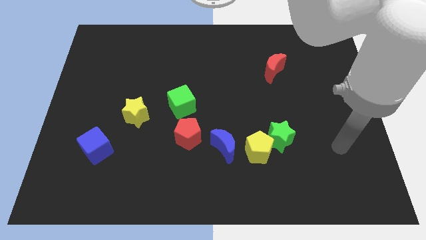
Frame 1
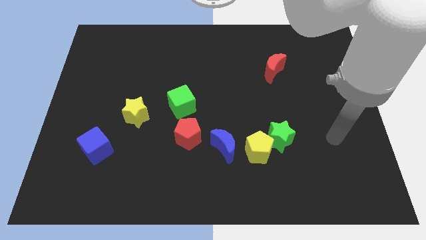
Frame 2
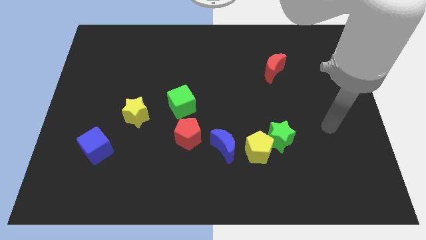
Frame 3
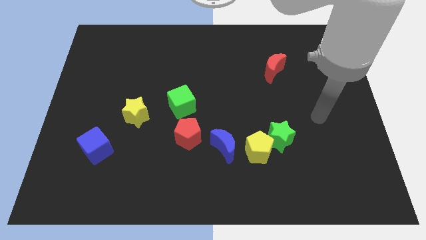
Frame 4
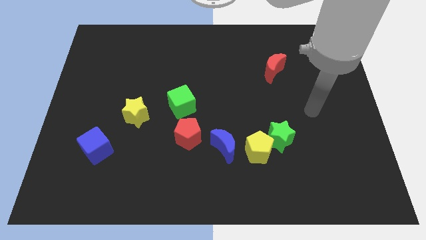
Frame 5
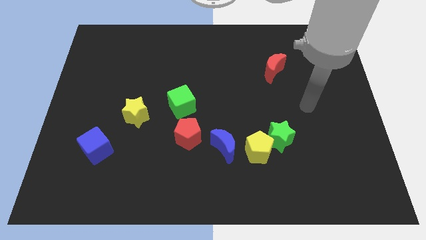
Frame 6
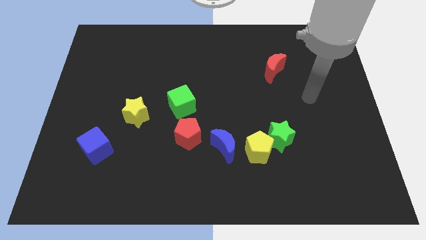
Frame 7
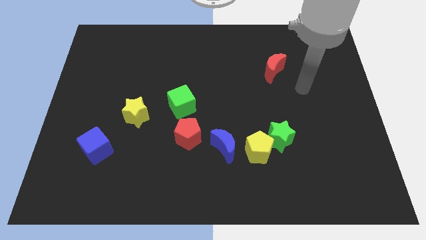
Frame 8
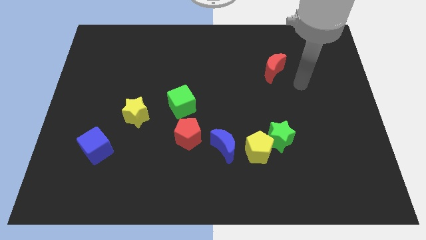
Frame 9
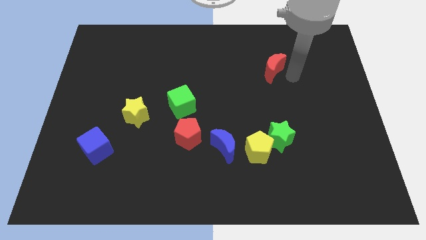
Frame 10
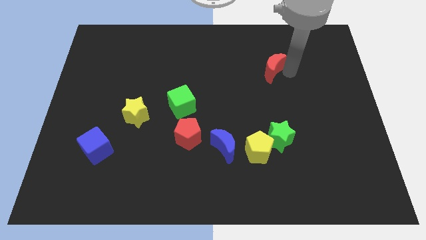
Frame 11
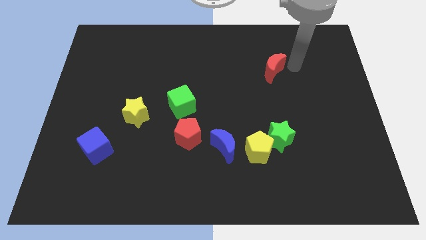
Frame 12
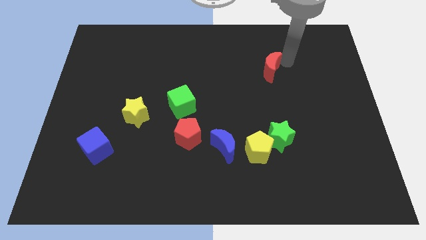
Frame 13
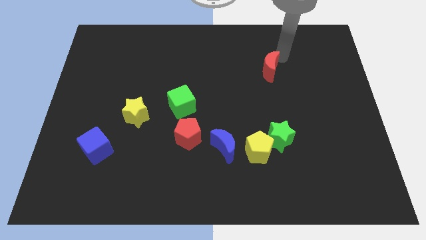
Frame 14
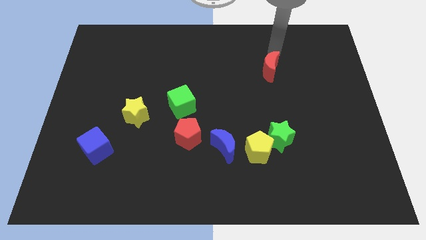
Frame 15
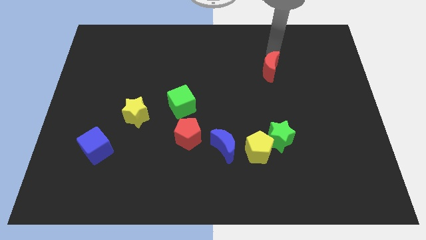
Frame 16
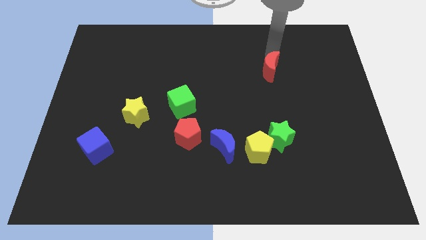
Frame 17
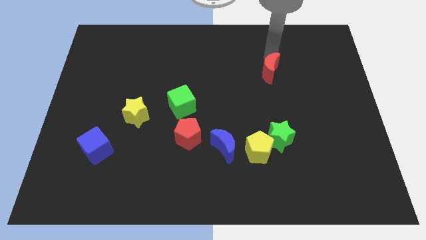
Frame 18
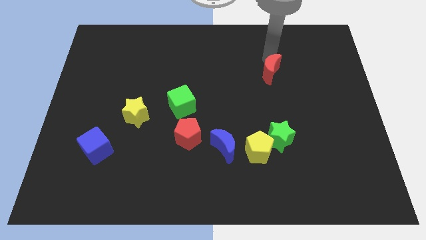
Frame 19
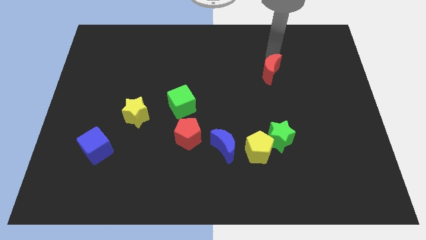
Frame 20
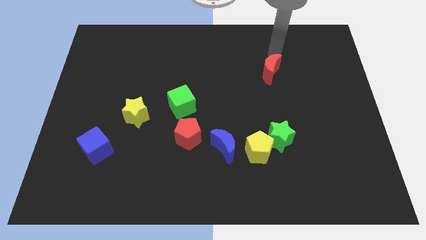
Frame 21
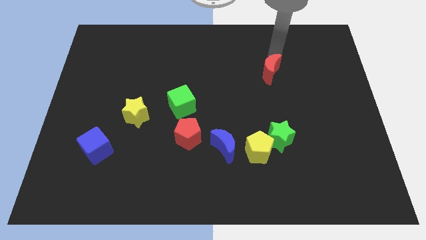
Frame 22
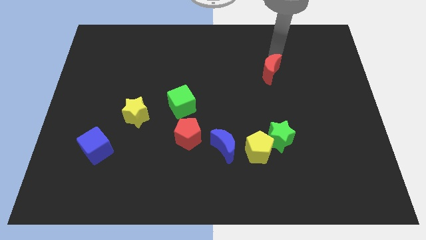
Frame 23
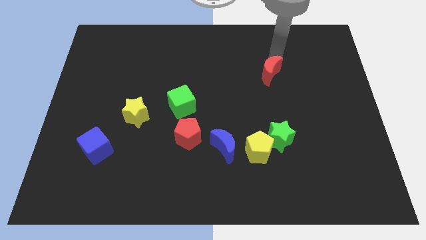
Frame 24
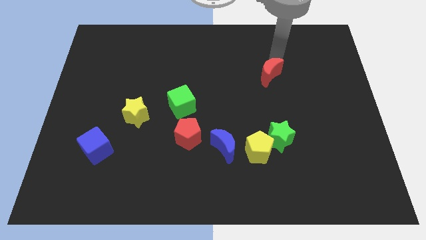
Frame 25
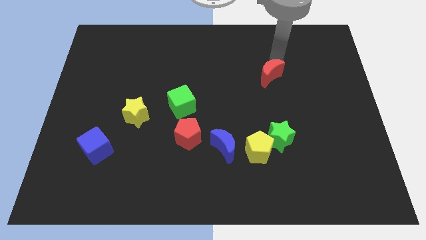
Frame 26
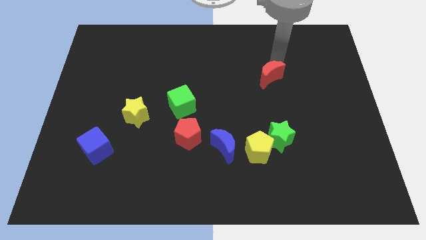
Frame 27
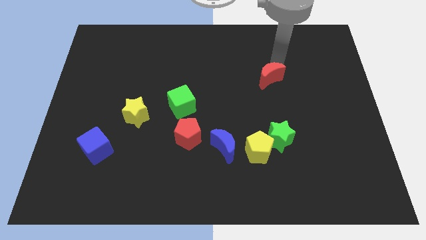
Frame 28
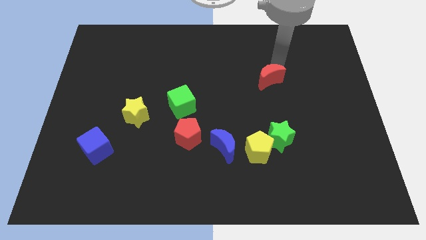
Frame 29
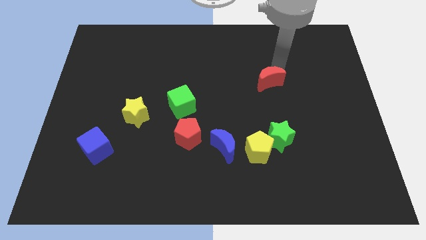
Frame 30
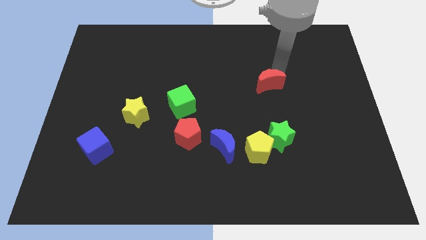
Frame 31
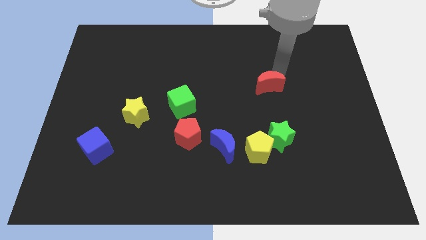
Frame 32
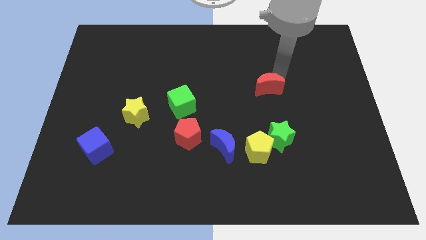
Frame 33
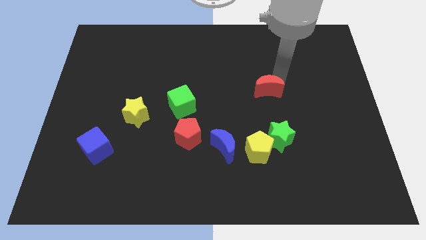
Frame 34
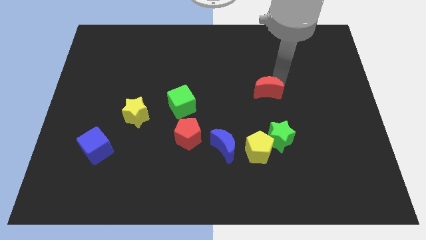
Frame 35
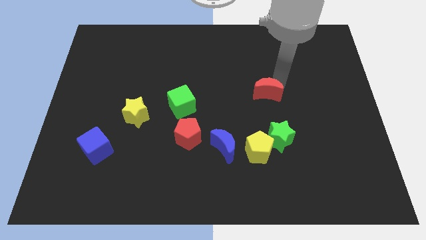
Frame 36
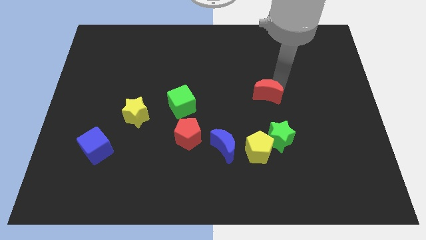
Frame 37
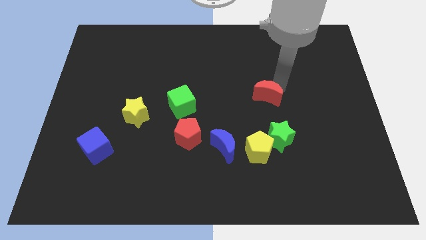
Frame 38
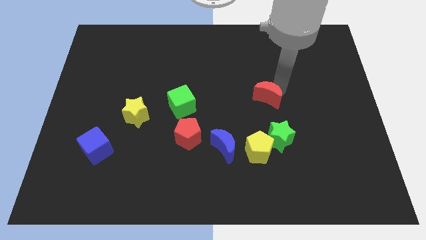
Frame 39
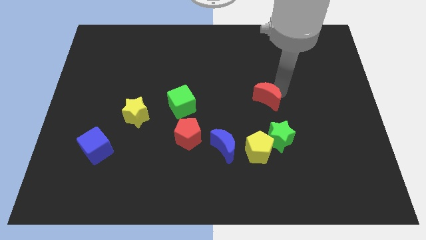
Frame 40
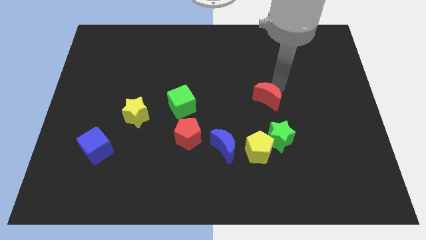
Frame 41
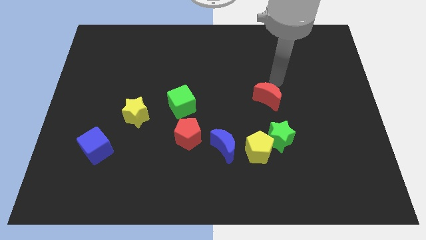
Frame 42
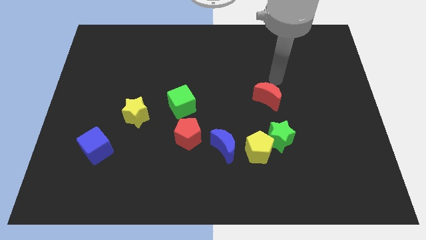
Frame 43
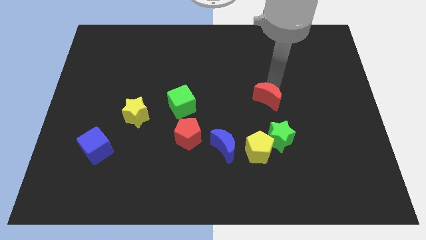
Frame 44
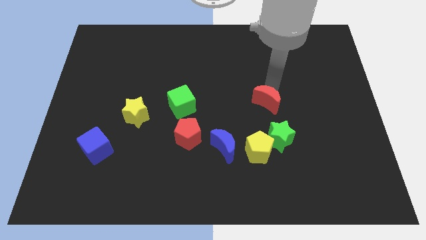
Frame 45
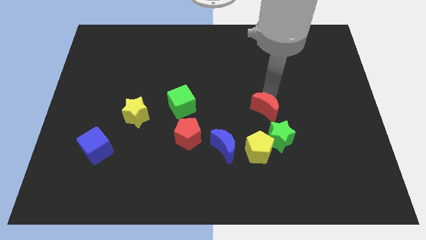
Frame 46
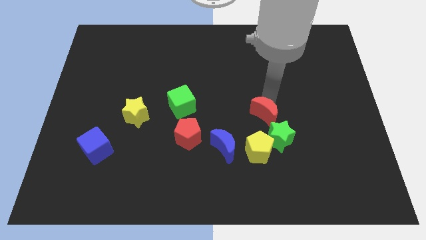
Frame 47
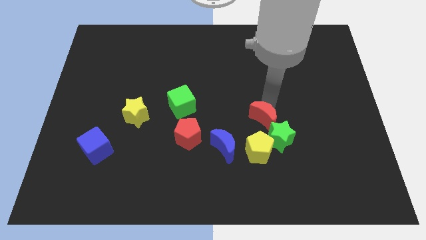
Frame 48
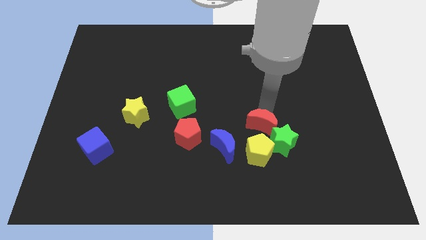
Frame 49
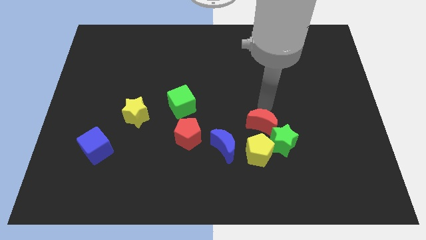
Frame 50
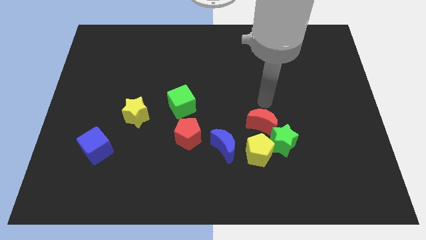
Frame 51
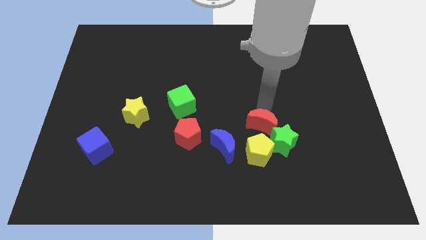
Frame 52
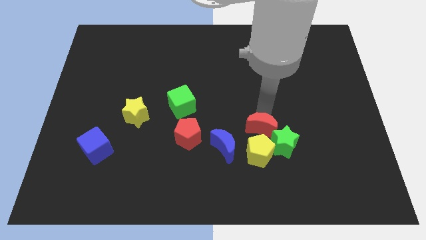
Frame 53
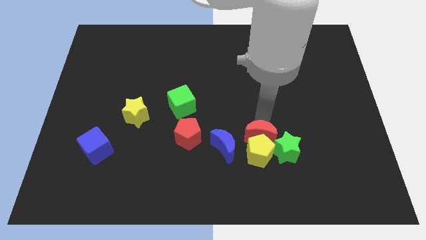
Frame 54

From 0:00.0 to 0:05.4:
put the red moon next to the yellow pentagon

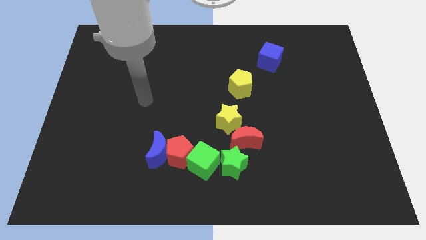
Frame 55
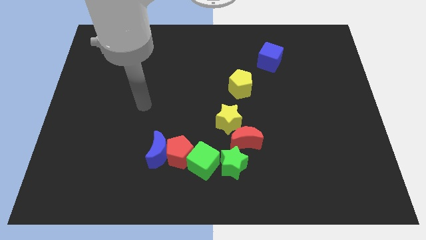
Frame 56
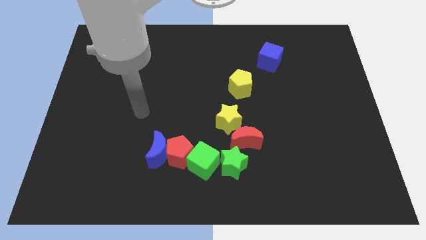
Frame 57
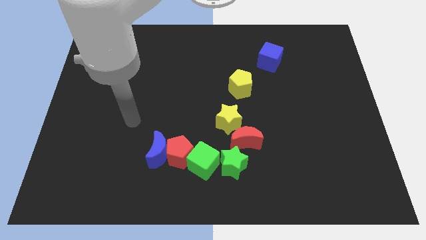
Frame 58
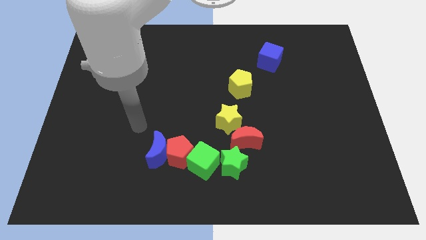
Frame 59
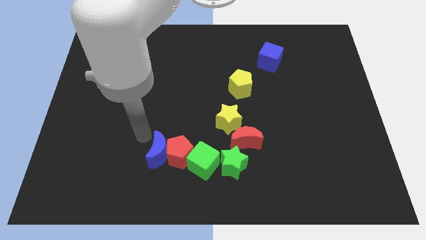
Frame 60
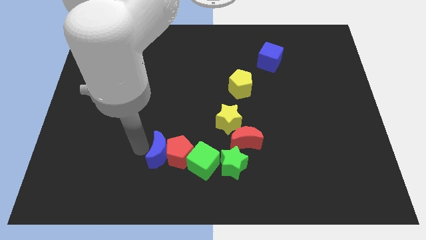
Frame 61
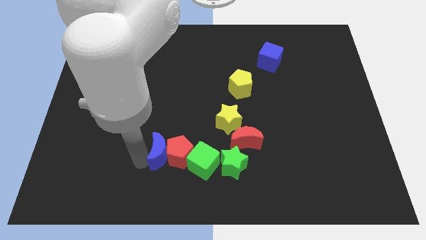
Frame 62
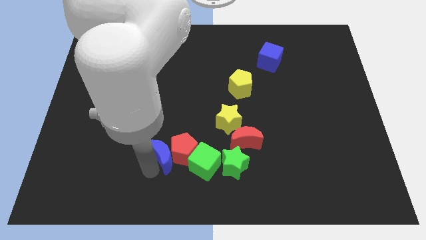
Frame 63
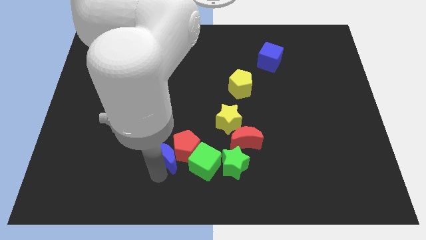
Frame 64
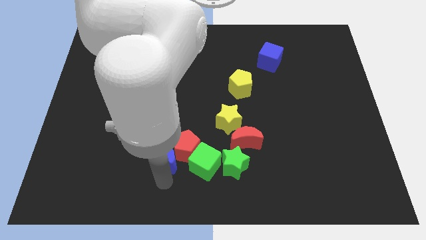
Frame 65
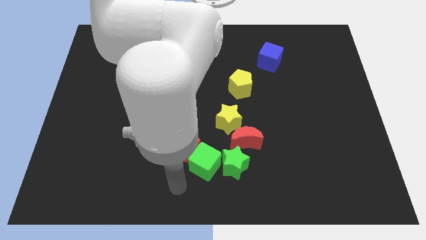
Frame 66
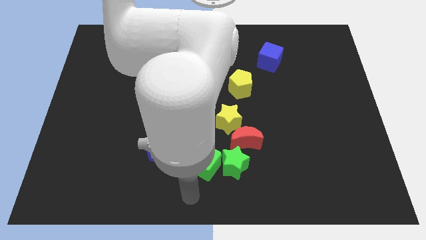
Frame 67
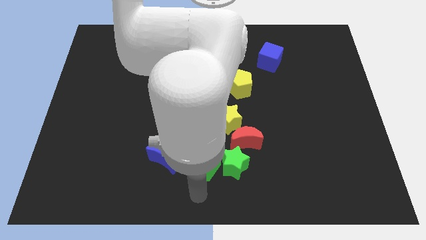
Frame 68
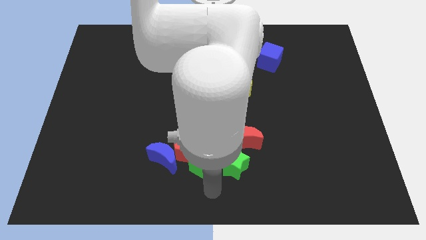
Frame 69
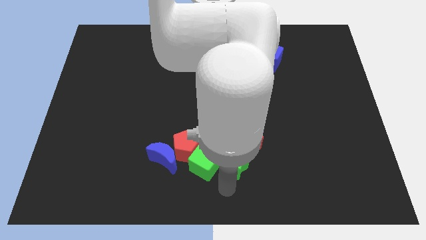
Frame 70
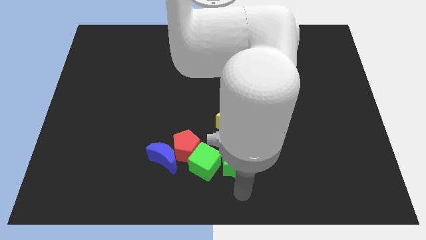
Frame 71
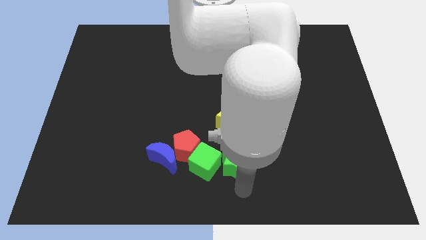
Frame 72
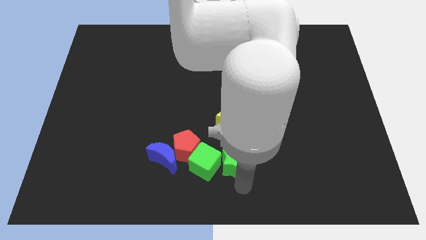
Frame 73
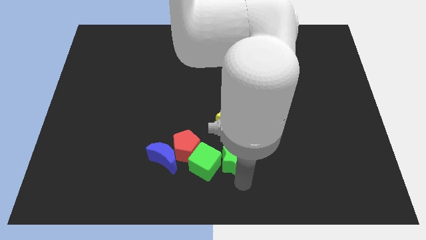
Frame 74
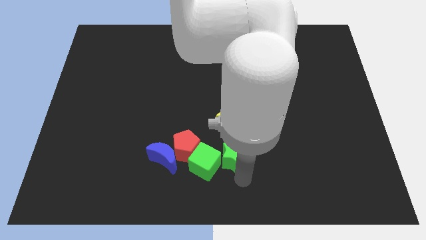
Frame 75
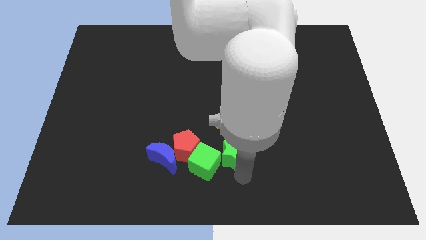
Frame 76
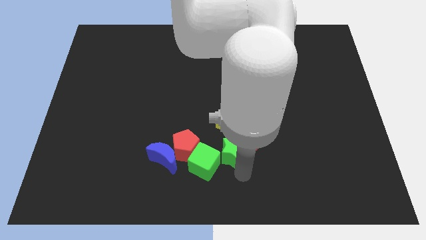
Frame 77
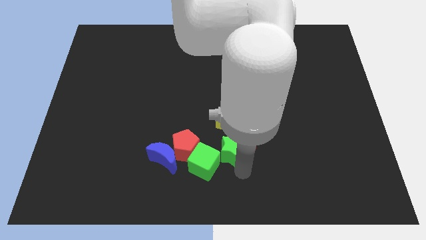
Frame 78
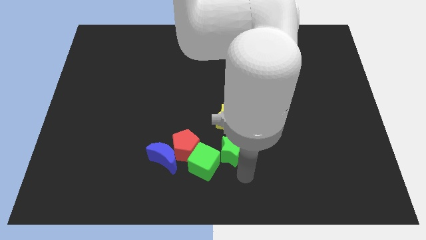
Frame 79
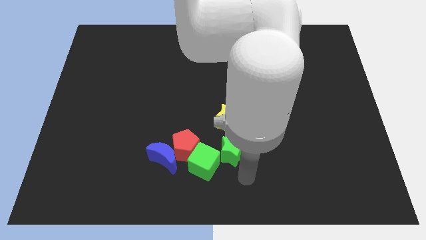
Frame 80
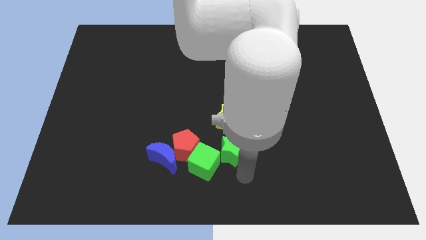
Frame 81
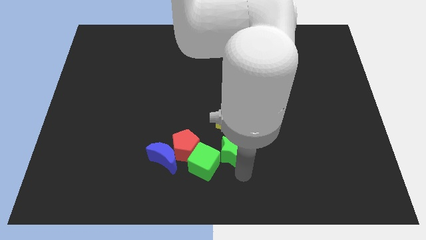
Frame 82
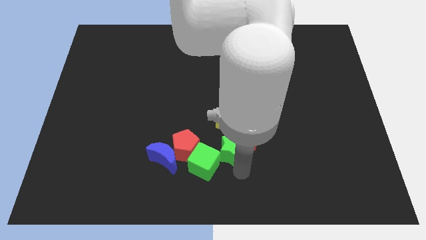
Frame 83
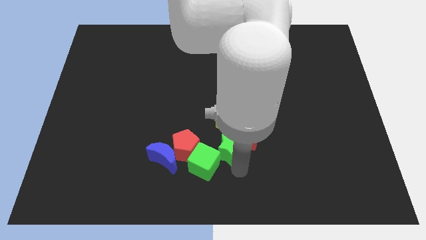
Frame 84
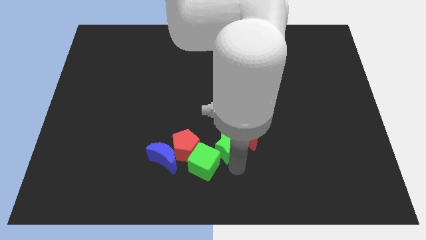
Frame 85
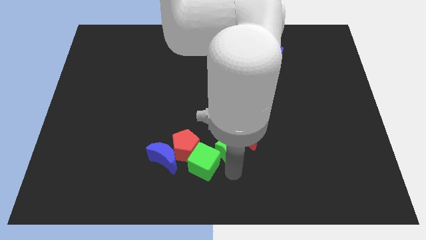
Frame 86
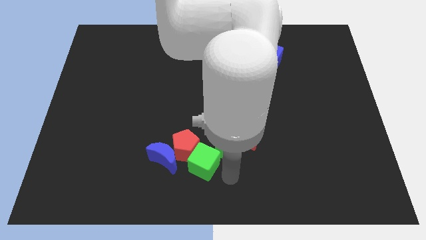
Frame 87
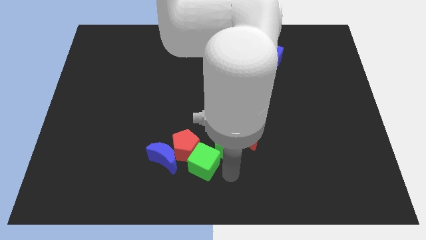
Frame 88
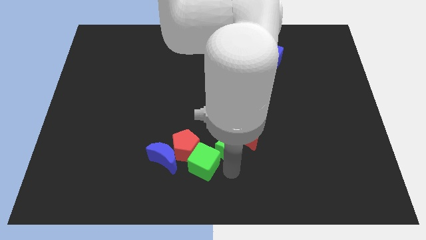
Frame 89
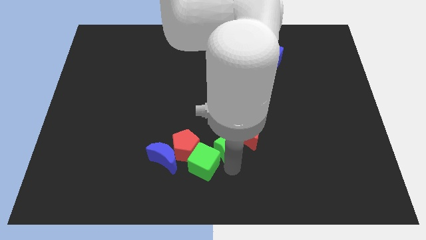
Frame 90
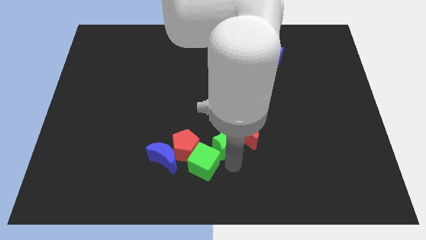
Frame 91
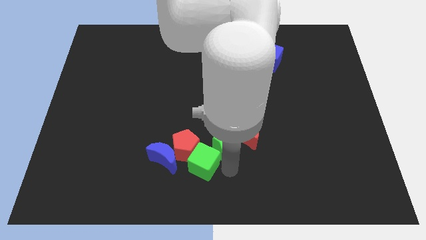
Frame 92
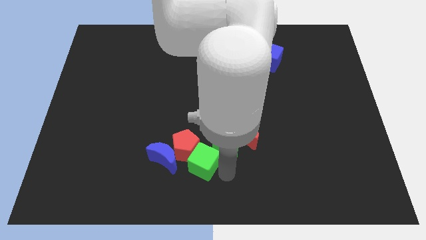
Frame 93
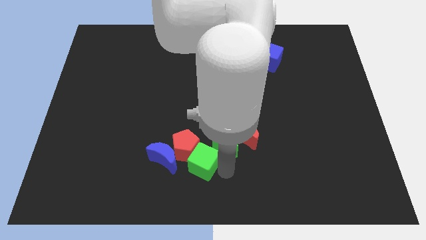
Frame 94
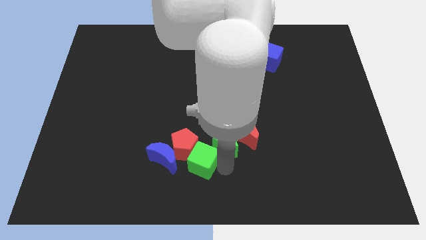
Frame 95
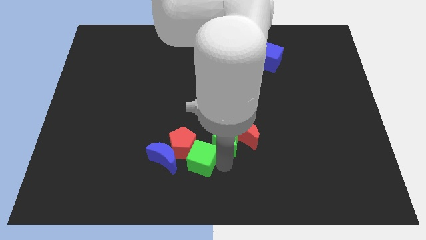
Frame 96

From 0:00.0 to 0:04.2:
slide the green star to the yellow star
